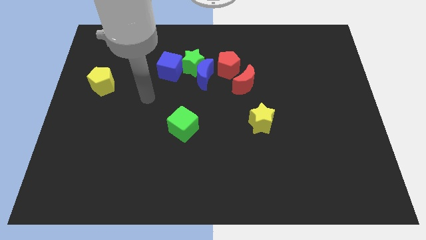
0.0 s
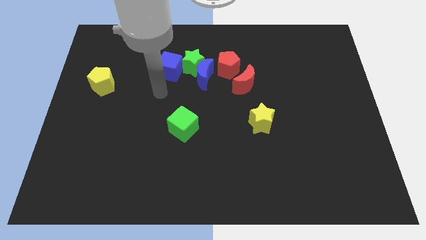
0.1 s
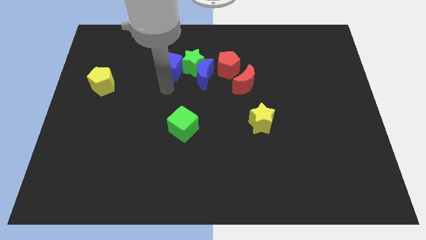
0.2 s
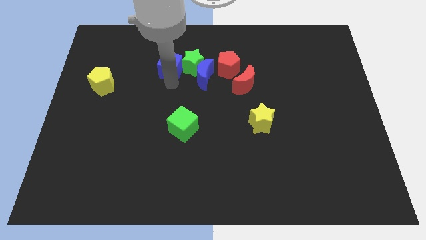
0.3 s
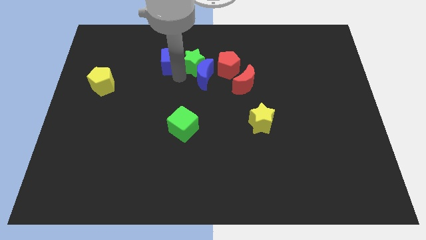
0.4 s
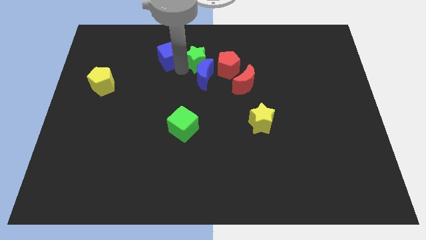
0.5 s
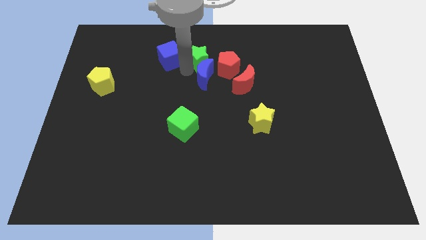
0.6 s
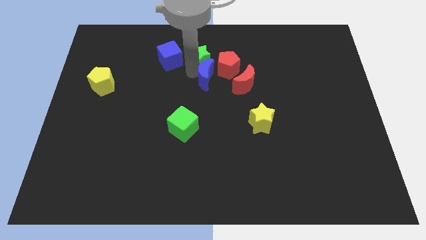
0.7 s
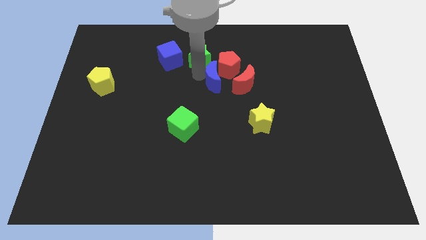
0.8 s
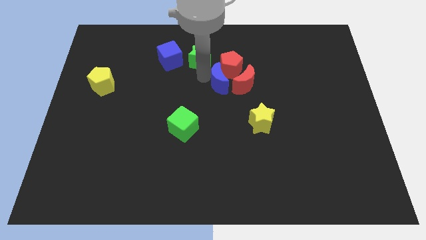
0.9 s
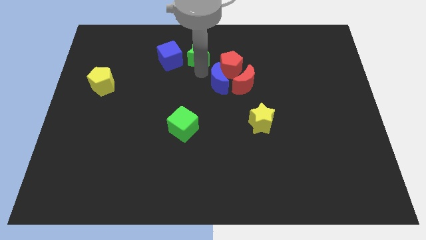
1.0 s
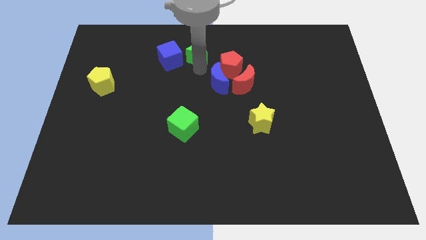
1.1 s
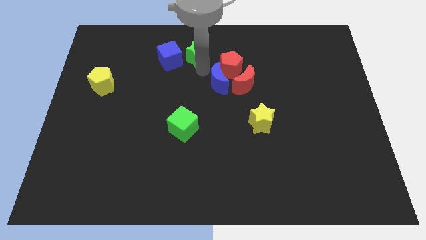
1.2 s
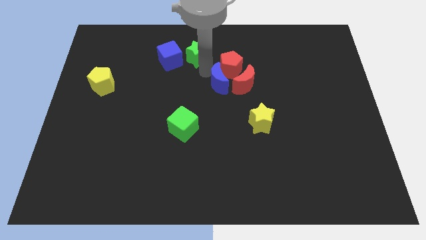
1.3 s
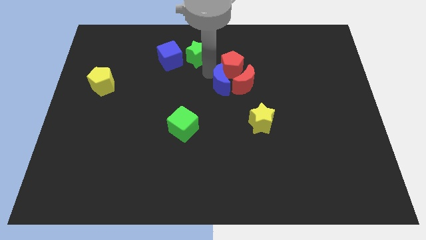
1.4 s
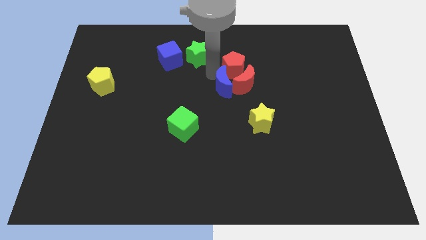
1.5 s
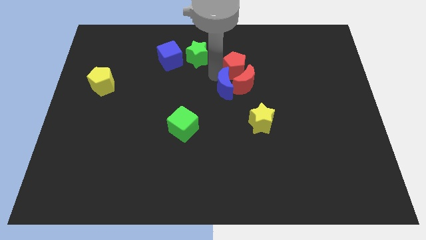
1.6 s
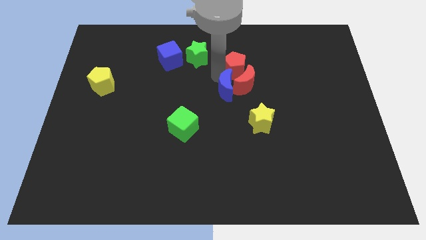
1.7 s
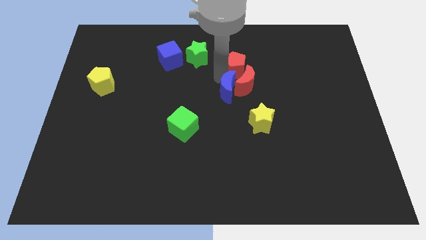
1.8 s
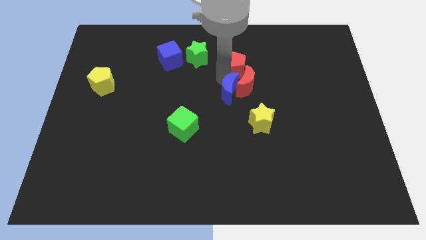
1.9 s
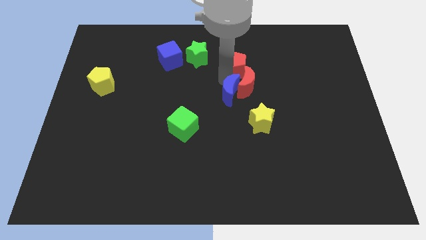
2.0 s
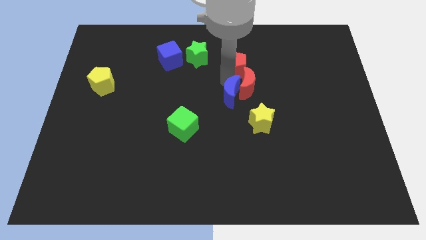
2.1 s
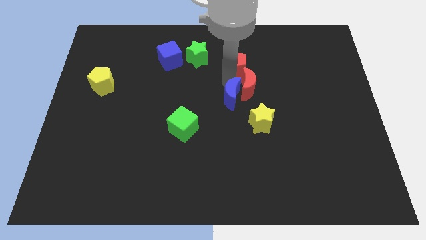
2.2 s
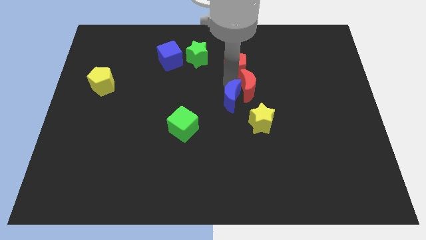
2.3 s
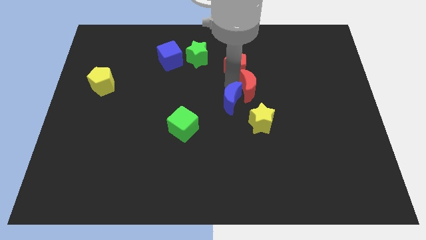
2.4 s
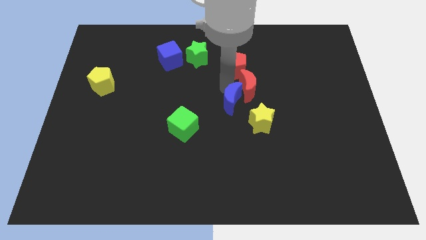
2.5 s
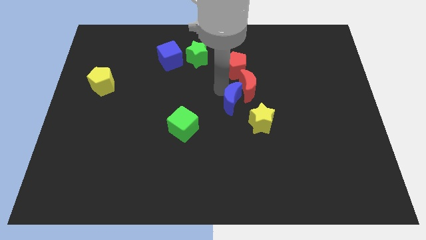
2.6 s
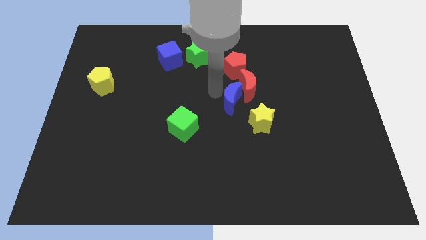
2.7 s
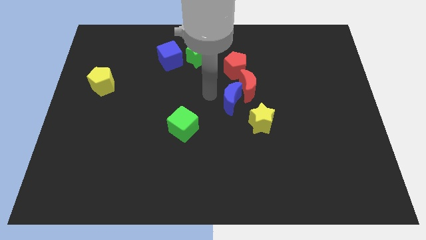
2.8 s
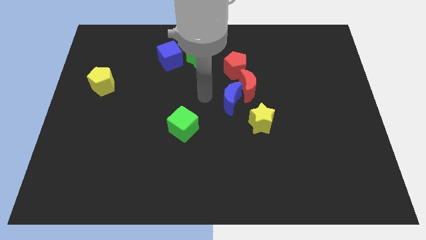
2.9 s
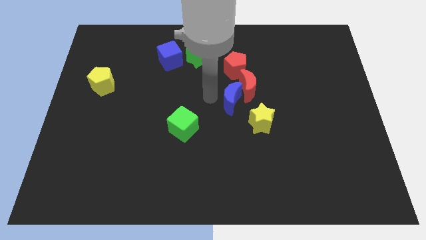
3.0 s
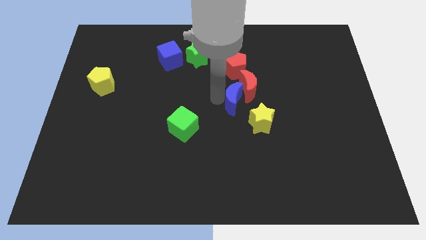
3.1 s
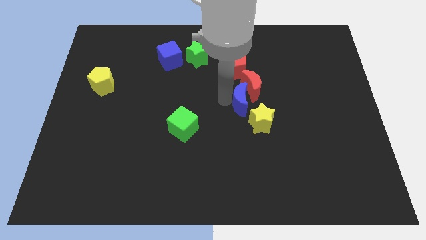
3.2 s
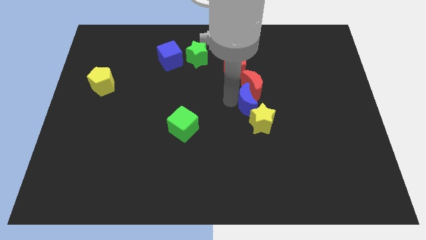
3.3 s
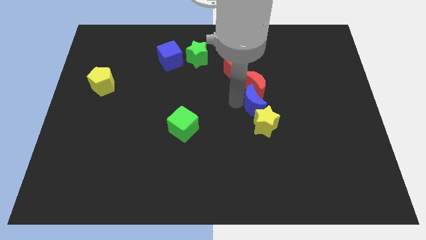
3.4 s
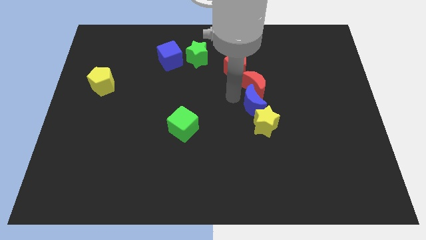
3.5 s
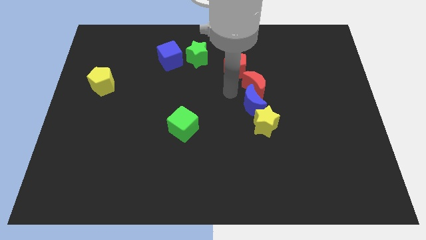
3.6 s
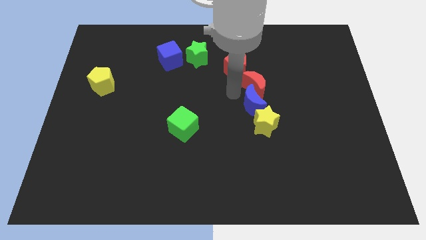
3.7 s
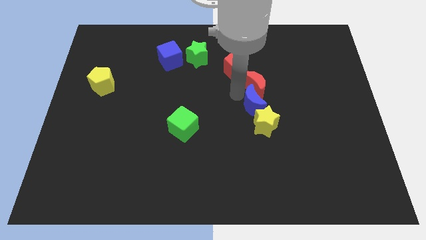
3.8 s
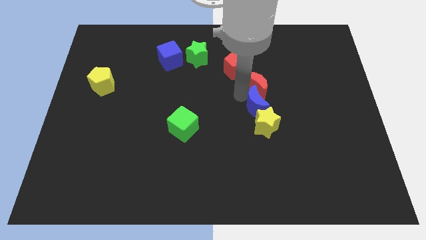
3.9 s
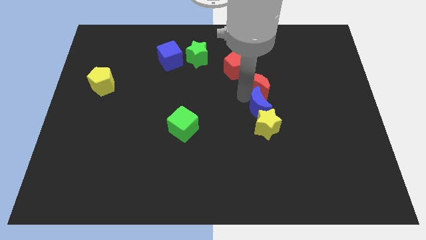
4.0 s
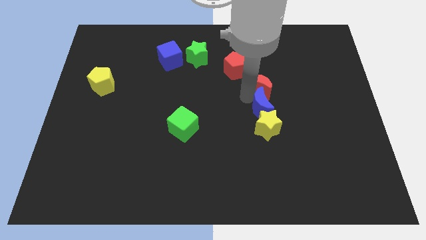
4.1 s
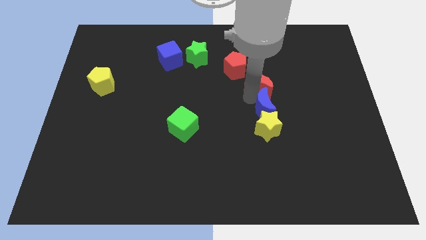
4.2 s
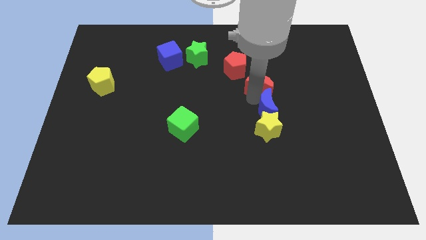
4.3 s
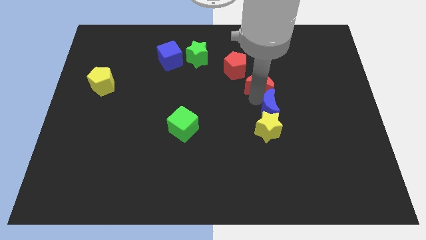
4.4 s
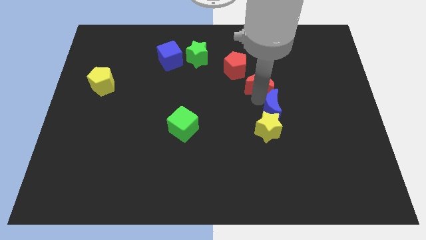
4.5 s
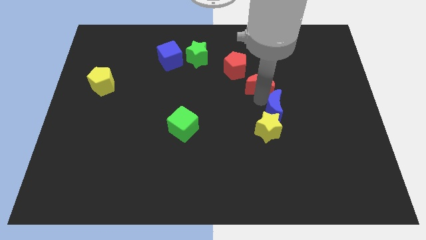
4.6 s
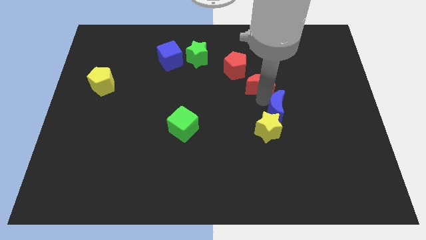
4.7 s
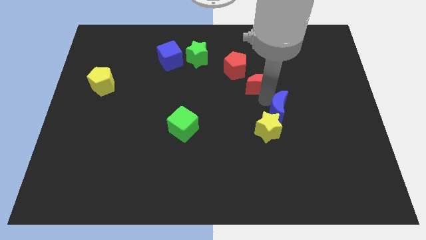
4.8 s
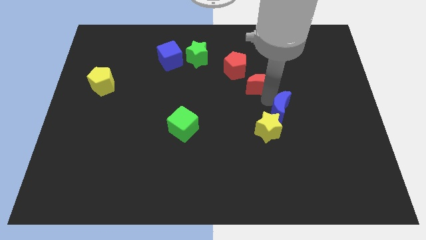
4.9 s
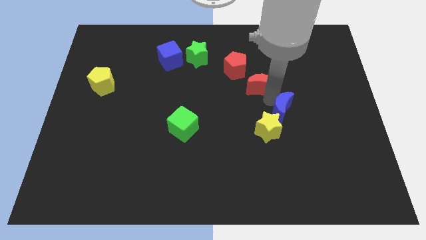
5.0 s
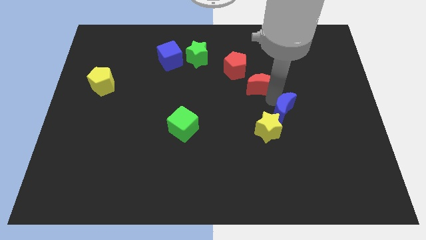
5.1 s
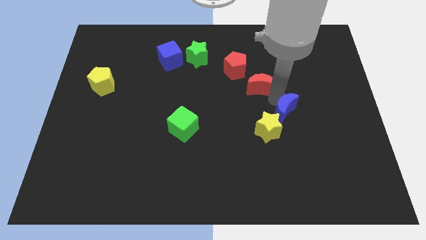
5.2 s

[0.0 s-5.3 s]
move the blue moon downwards and to the right diagonally

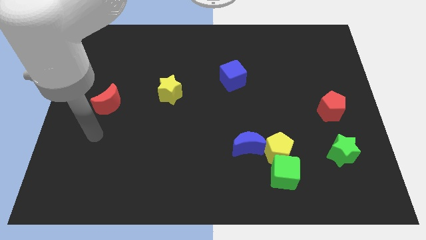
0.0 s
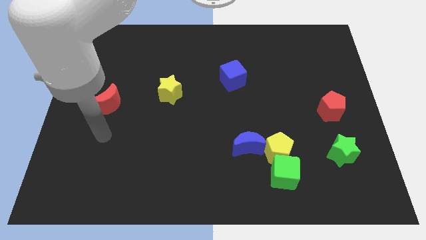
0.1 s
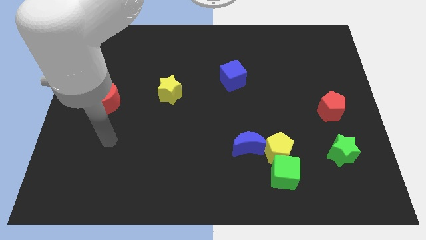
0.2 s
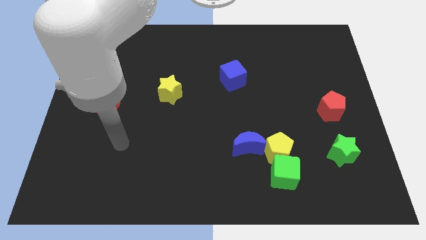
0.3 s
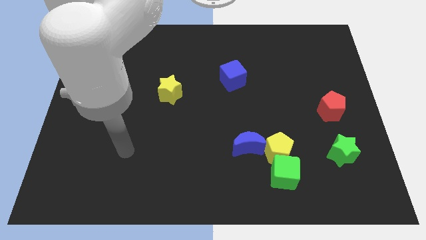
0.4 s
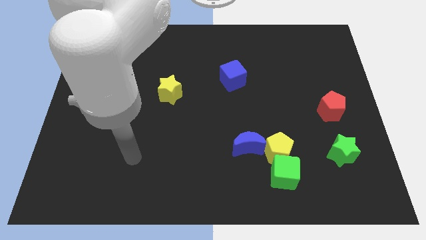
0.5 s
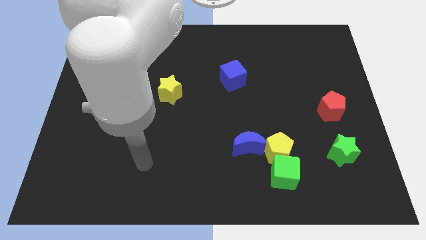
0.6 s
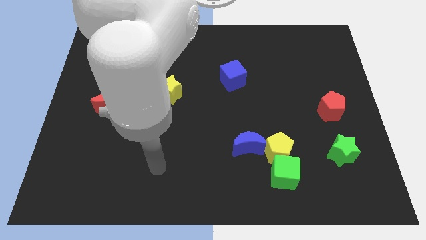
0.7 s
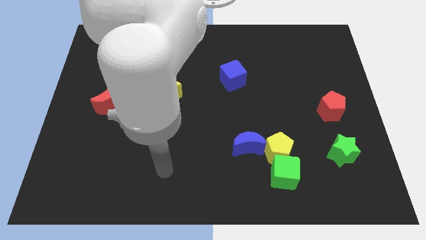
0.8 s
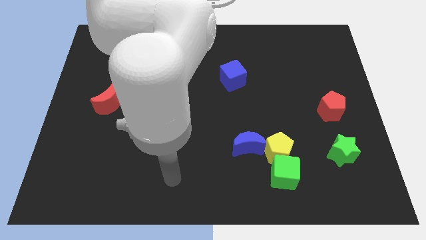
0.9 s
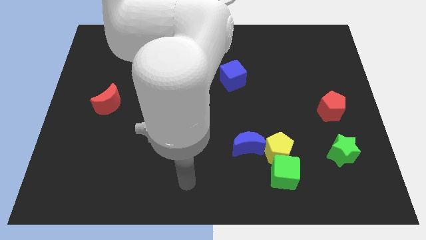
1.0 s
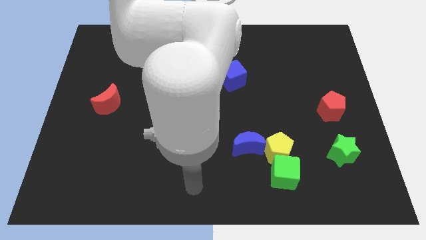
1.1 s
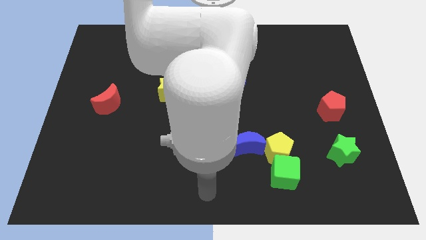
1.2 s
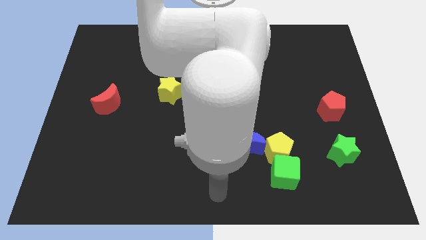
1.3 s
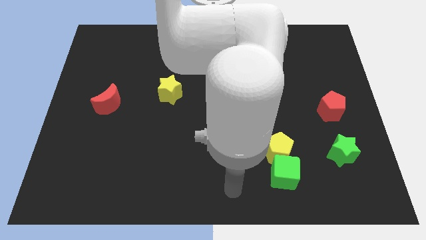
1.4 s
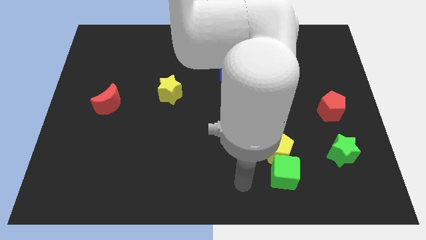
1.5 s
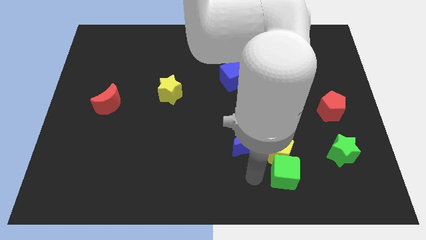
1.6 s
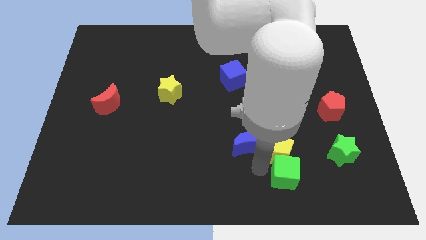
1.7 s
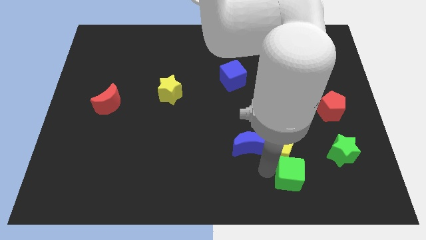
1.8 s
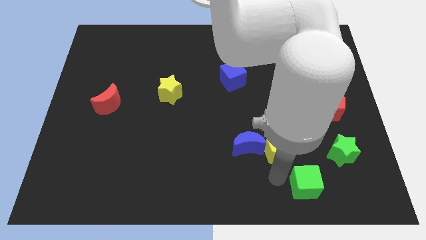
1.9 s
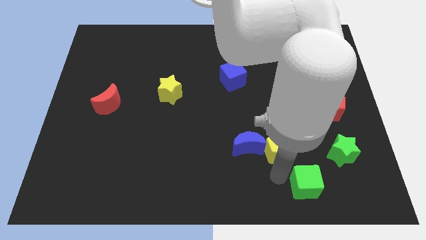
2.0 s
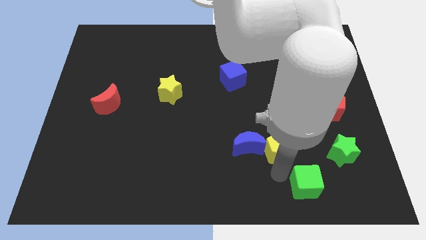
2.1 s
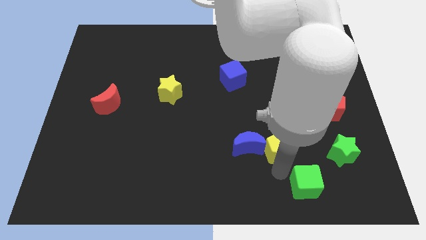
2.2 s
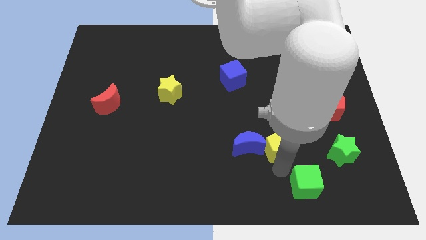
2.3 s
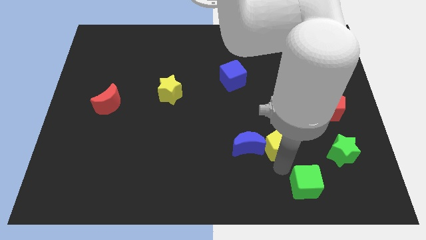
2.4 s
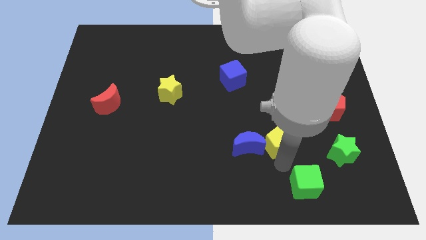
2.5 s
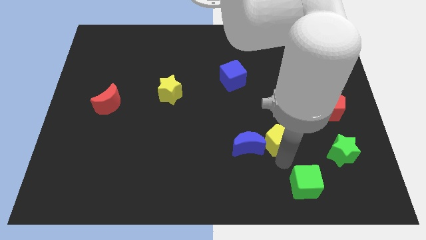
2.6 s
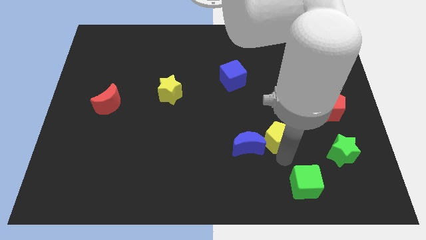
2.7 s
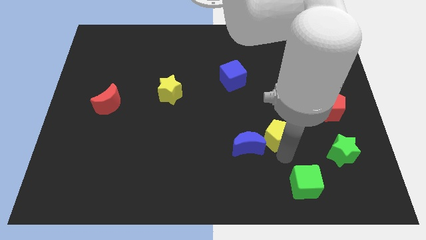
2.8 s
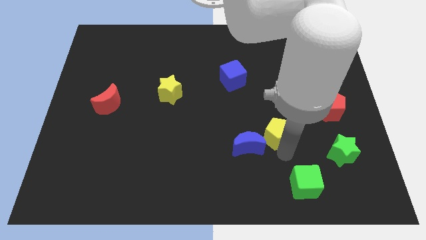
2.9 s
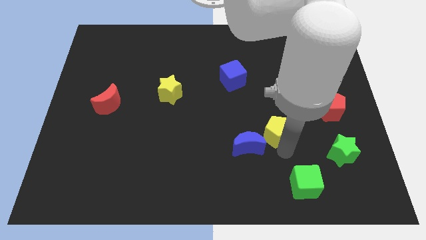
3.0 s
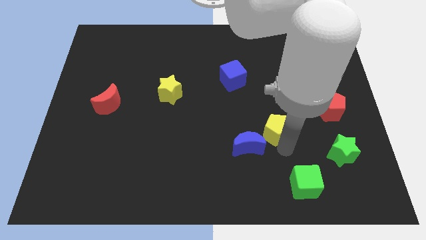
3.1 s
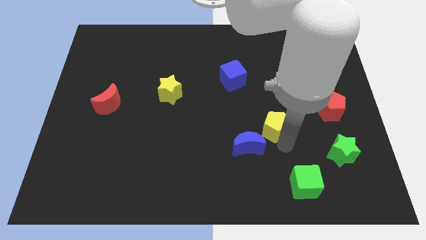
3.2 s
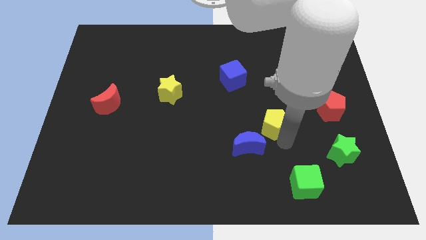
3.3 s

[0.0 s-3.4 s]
push the yellow pentagon somewhat upwards
